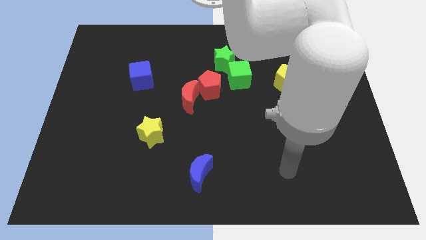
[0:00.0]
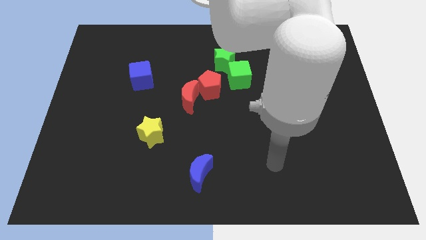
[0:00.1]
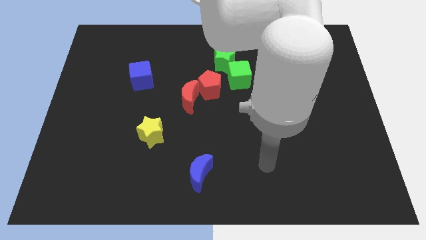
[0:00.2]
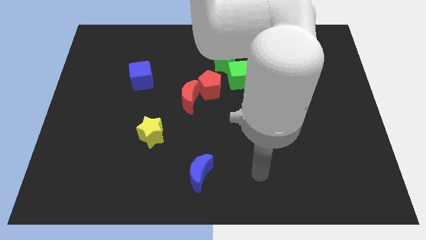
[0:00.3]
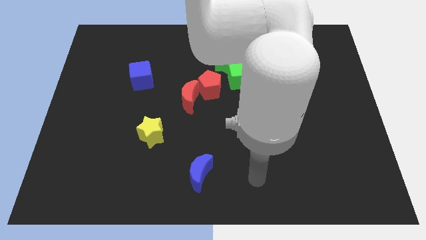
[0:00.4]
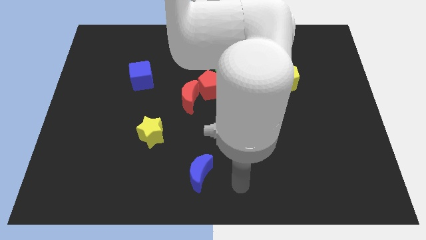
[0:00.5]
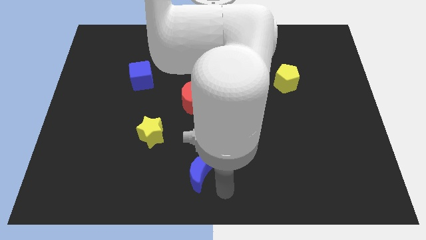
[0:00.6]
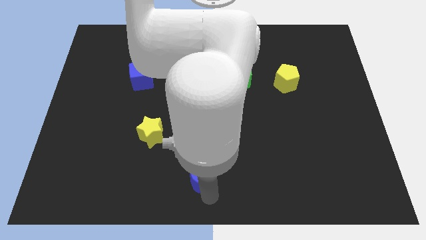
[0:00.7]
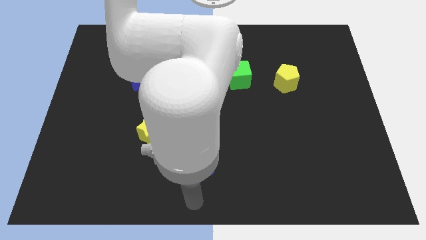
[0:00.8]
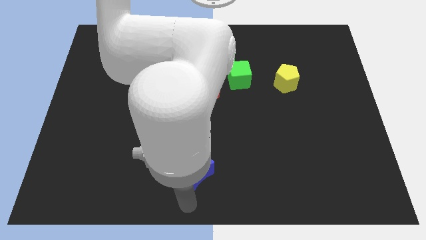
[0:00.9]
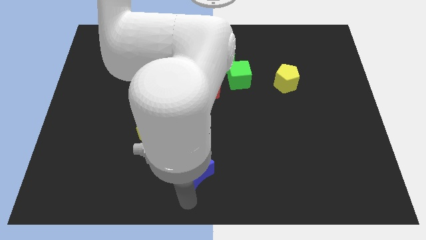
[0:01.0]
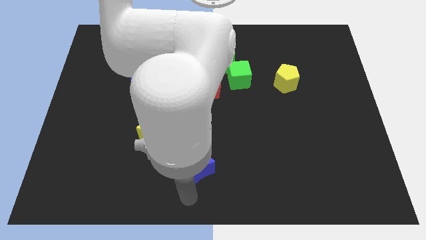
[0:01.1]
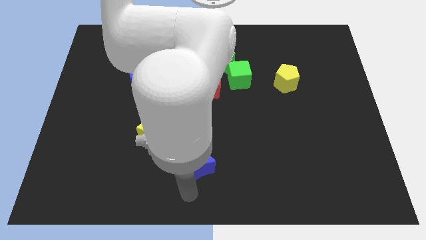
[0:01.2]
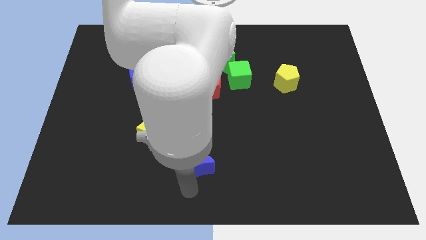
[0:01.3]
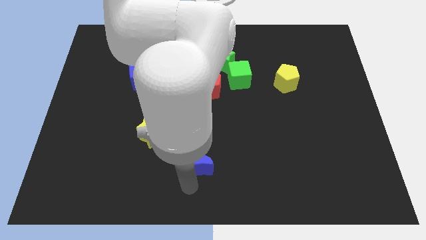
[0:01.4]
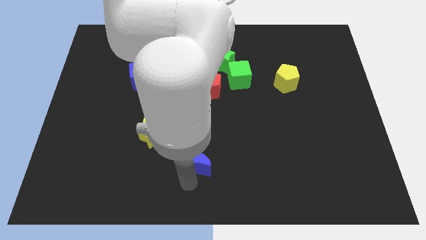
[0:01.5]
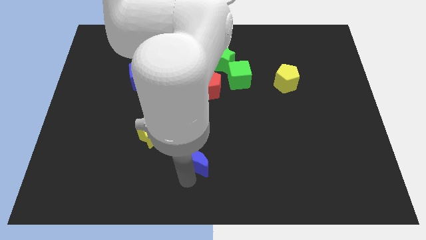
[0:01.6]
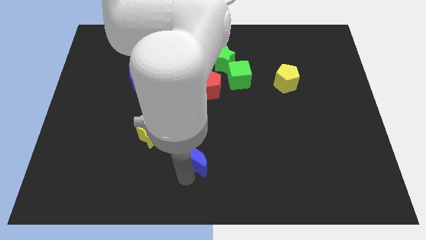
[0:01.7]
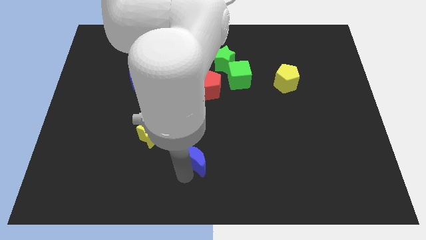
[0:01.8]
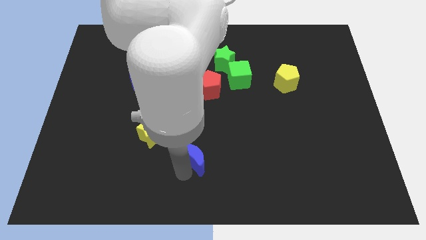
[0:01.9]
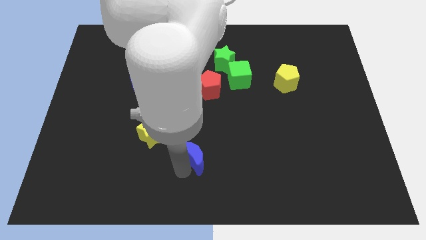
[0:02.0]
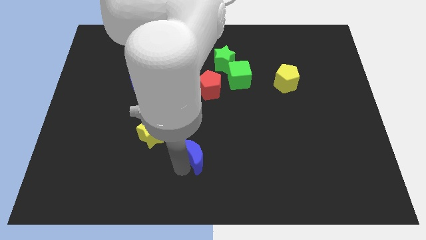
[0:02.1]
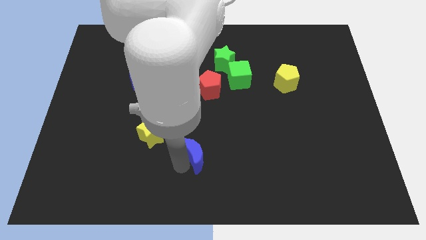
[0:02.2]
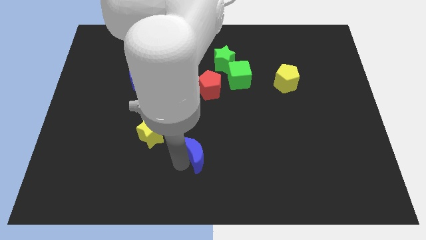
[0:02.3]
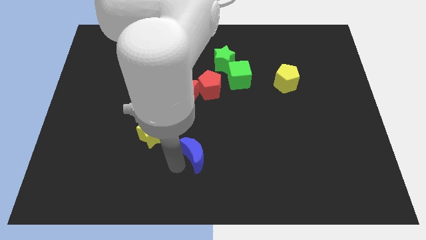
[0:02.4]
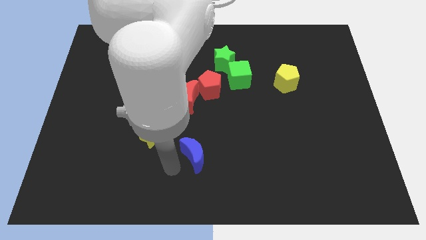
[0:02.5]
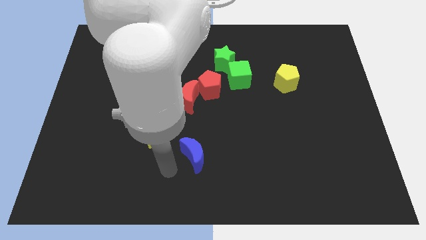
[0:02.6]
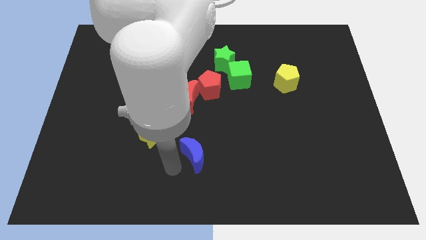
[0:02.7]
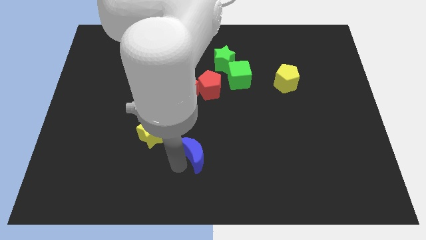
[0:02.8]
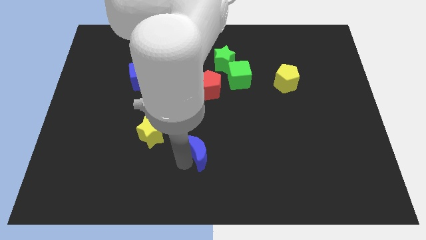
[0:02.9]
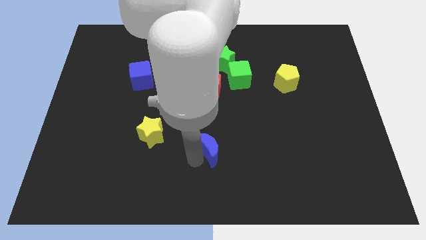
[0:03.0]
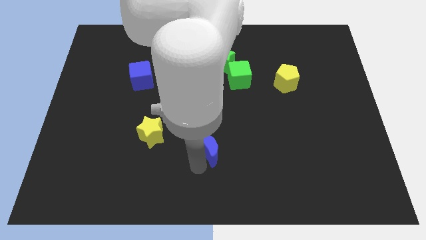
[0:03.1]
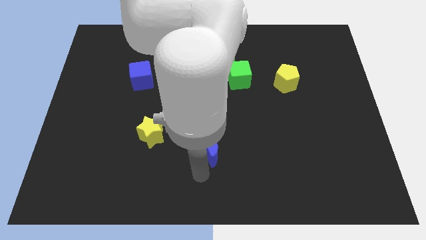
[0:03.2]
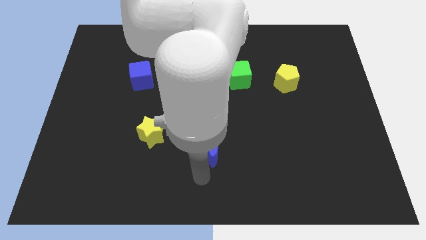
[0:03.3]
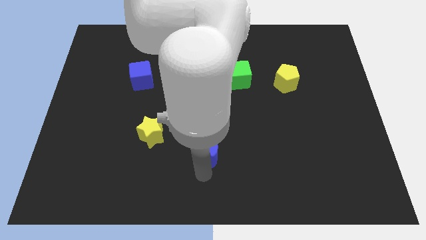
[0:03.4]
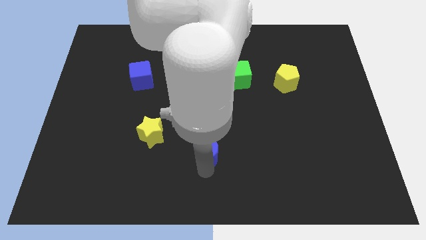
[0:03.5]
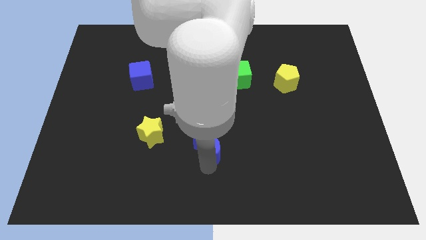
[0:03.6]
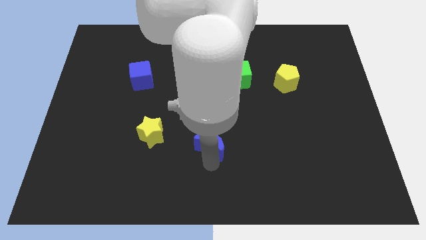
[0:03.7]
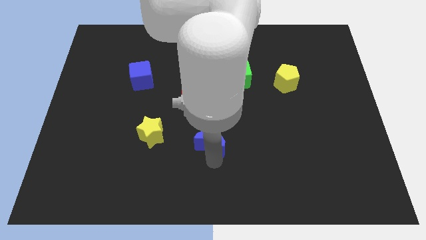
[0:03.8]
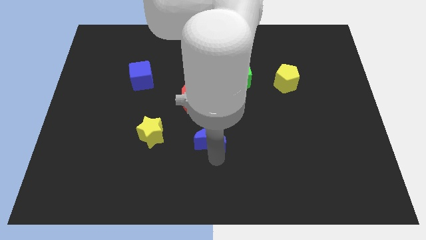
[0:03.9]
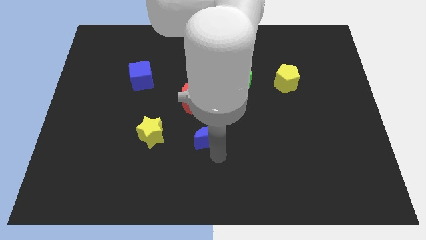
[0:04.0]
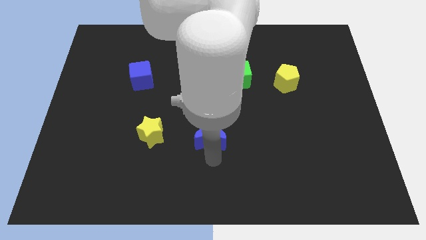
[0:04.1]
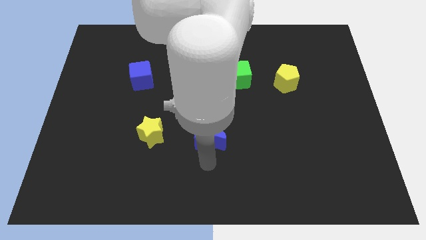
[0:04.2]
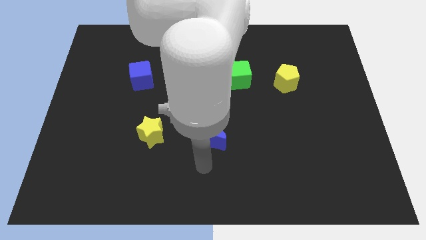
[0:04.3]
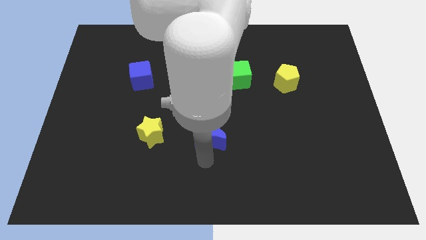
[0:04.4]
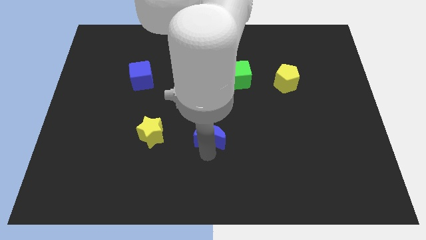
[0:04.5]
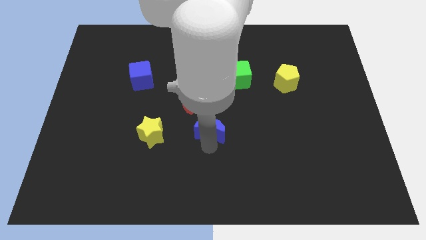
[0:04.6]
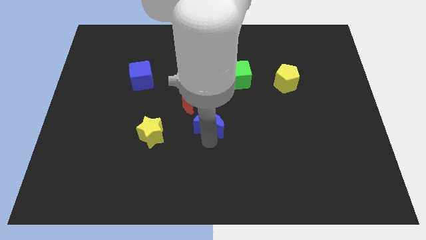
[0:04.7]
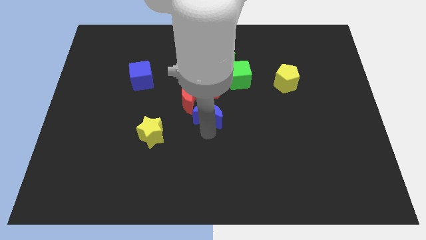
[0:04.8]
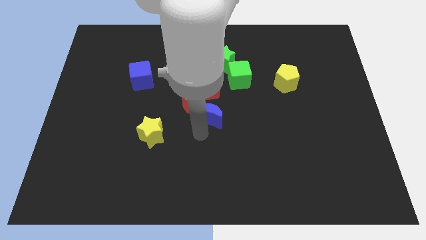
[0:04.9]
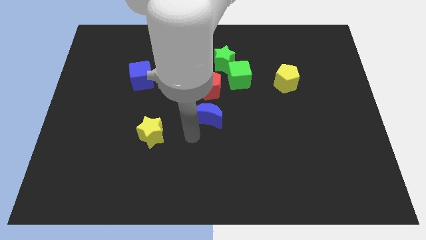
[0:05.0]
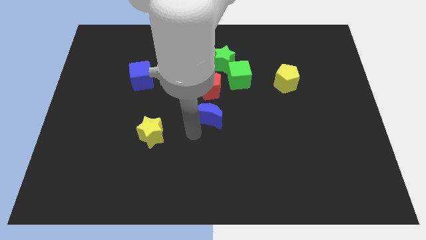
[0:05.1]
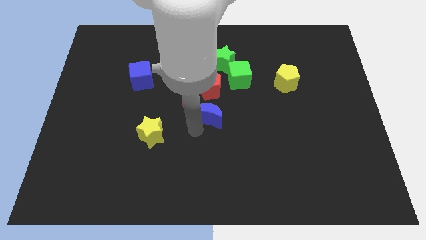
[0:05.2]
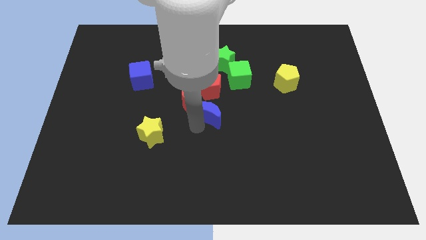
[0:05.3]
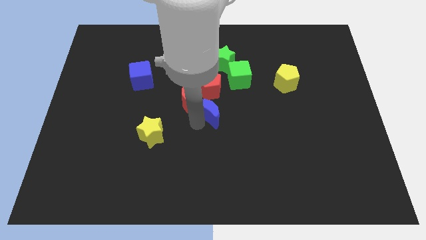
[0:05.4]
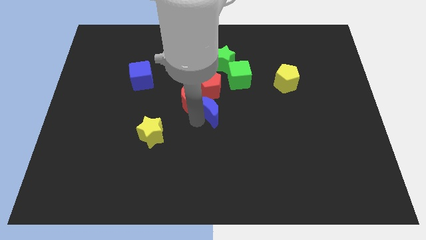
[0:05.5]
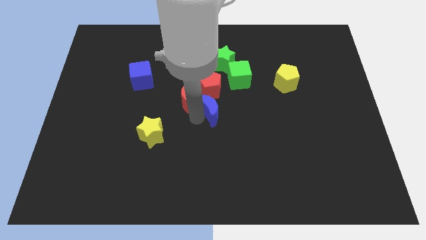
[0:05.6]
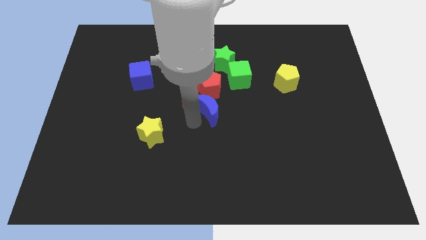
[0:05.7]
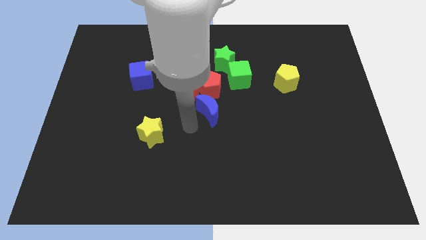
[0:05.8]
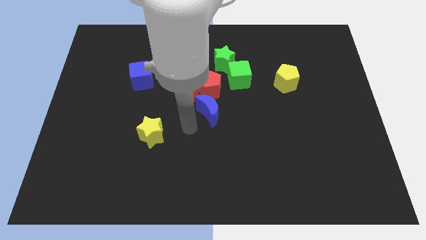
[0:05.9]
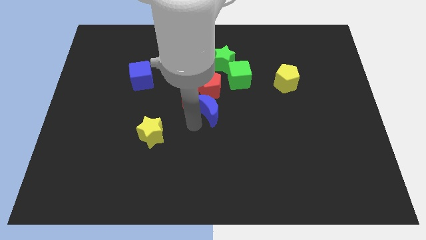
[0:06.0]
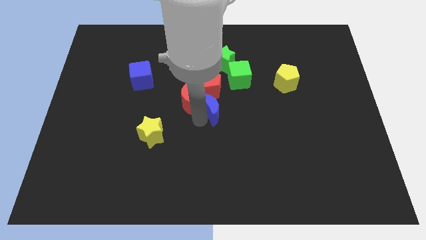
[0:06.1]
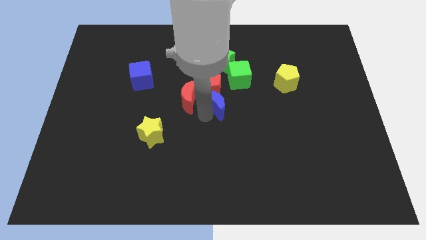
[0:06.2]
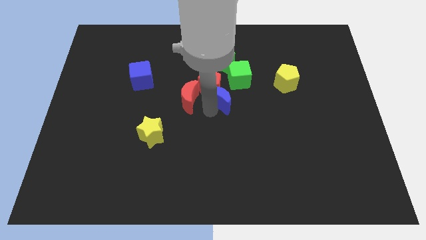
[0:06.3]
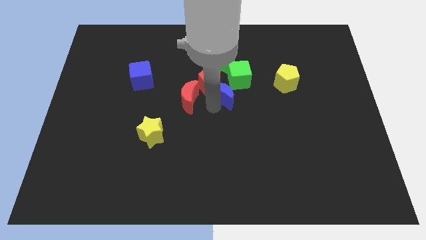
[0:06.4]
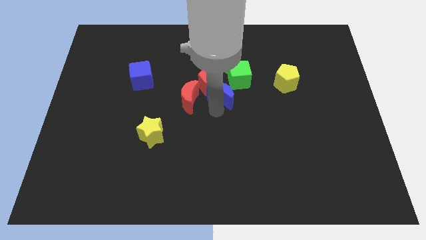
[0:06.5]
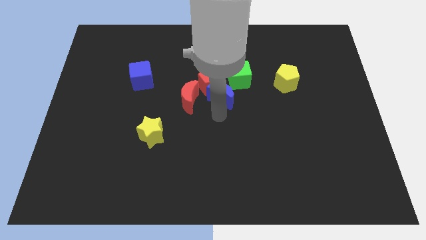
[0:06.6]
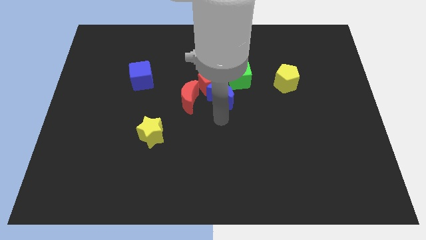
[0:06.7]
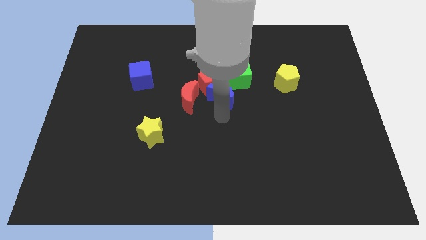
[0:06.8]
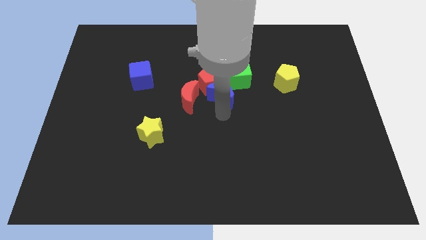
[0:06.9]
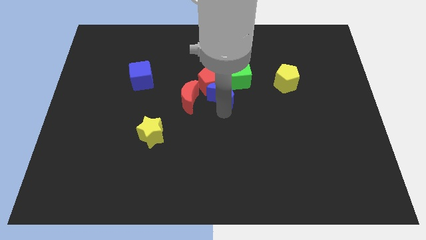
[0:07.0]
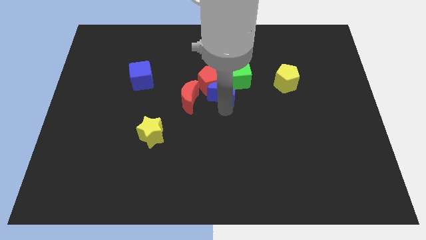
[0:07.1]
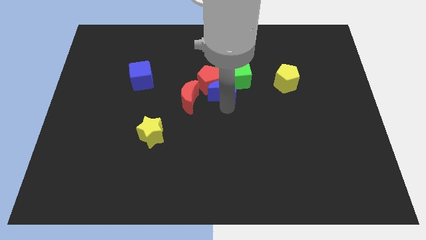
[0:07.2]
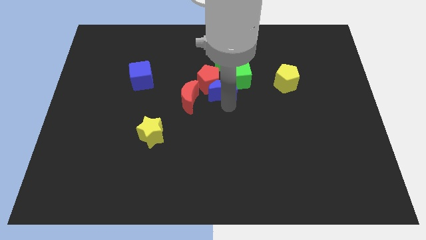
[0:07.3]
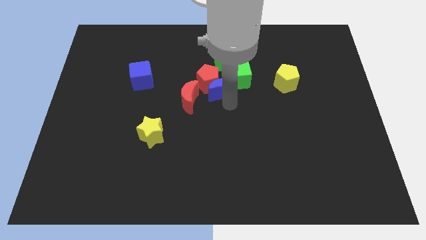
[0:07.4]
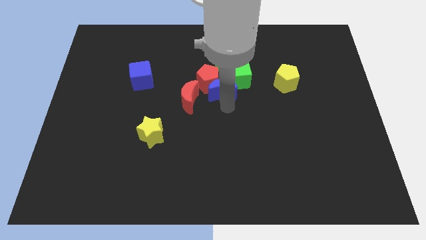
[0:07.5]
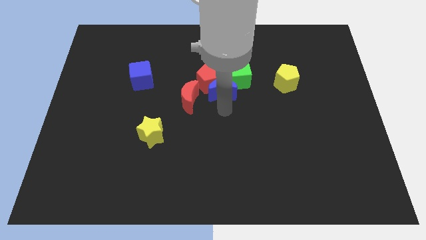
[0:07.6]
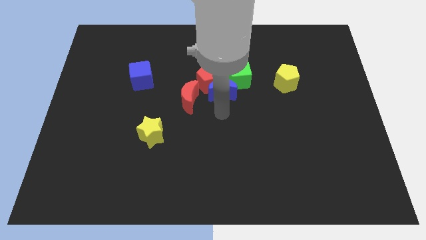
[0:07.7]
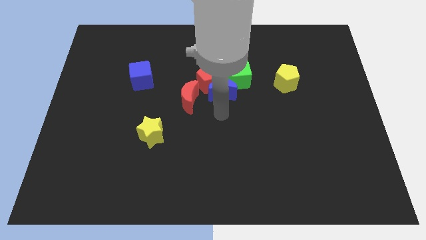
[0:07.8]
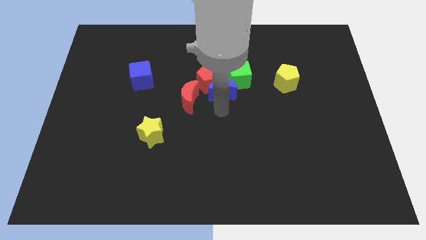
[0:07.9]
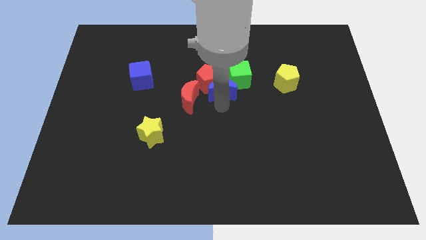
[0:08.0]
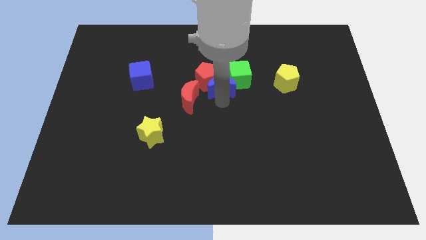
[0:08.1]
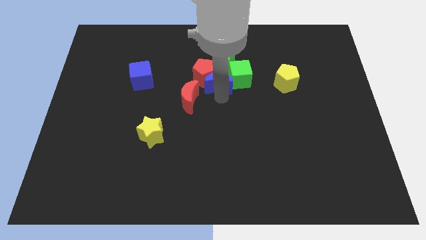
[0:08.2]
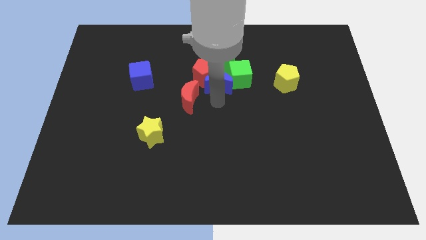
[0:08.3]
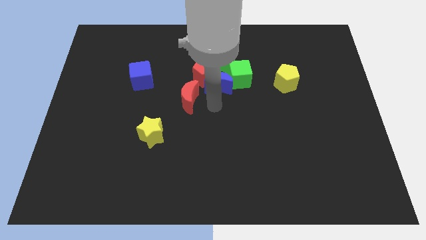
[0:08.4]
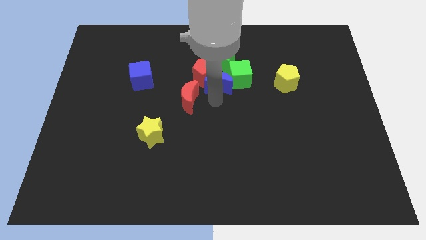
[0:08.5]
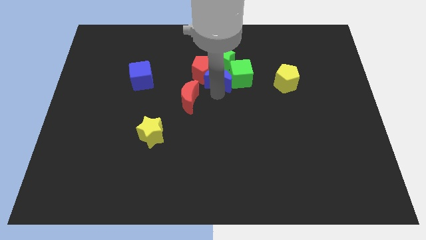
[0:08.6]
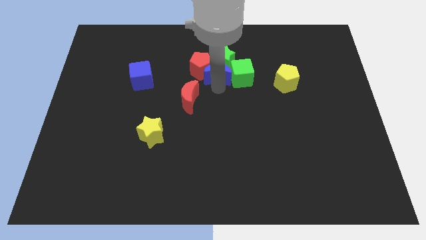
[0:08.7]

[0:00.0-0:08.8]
slide the blue moon next to the green star
